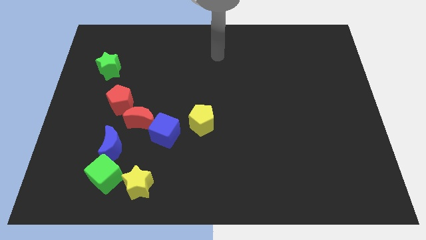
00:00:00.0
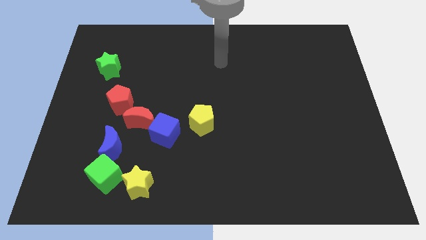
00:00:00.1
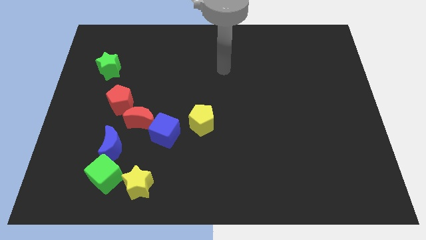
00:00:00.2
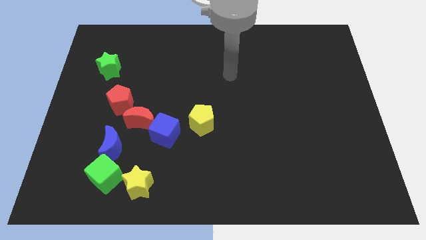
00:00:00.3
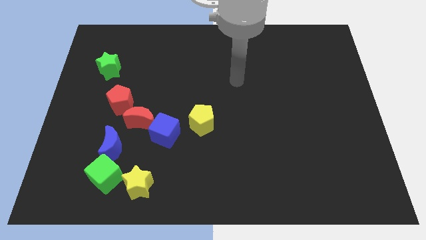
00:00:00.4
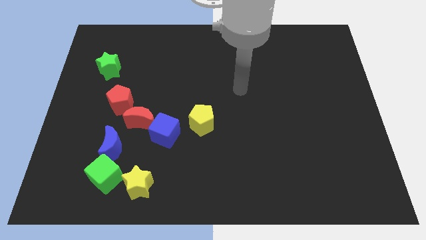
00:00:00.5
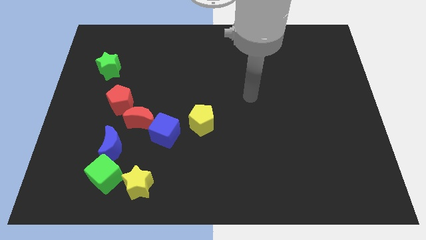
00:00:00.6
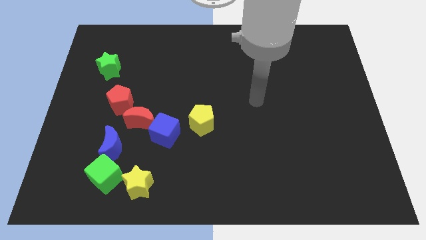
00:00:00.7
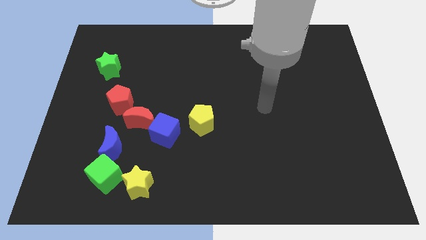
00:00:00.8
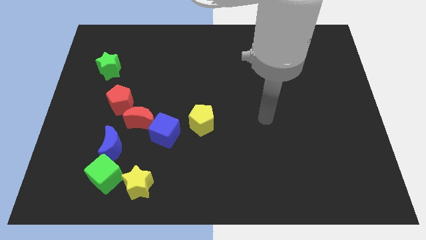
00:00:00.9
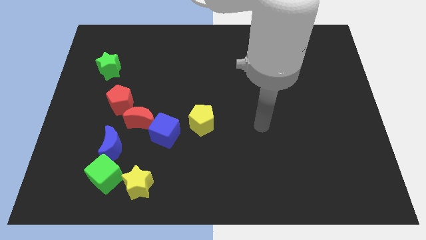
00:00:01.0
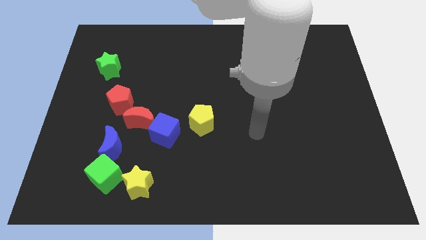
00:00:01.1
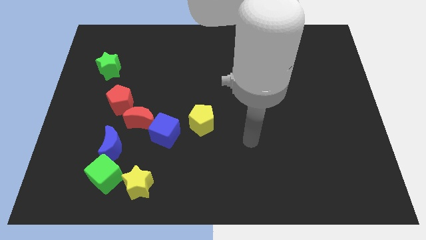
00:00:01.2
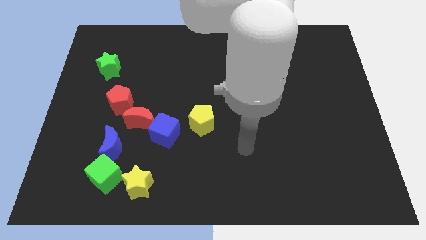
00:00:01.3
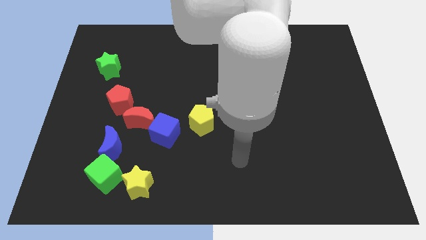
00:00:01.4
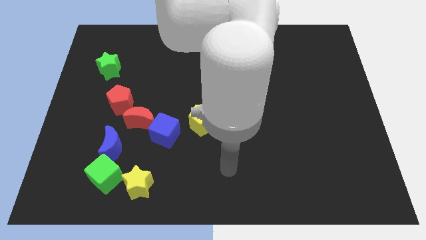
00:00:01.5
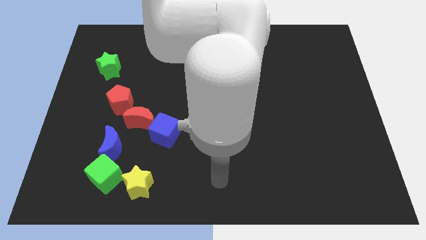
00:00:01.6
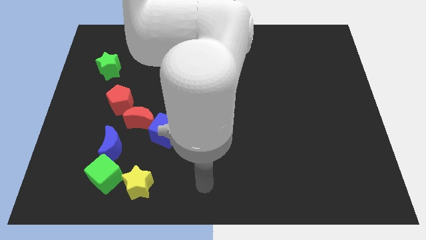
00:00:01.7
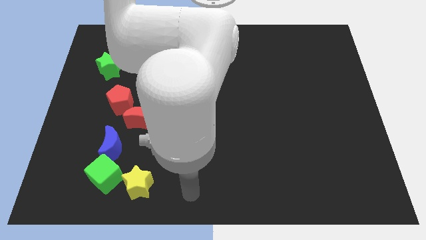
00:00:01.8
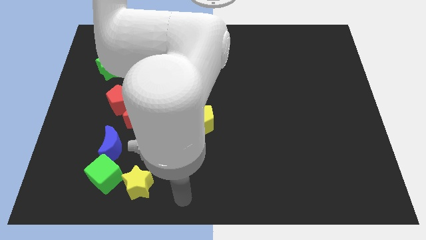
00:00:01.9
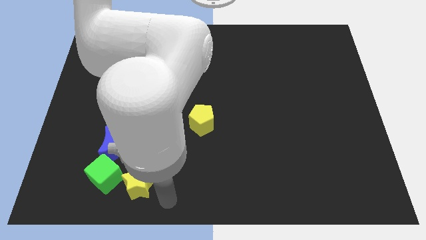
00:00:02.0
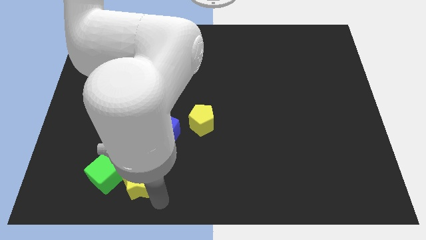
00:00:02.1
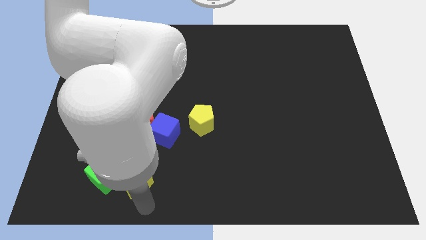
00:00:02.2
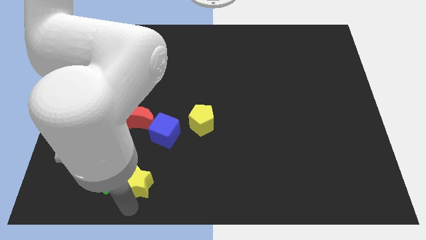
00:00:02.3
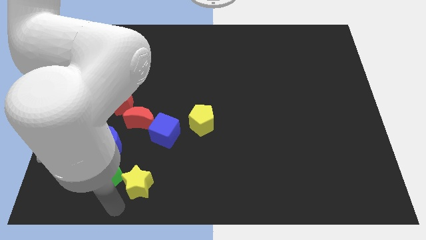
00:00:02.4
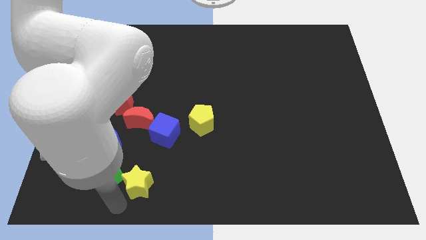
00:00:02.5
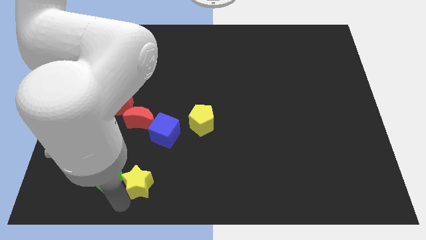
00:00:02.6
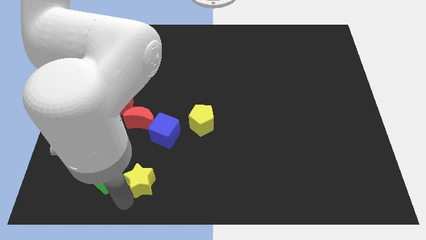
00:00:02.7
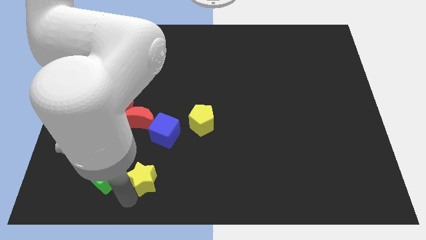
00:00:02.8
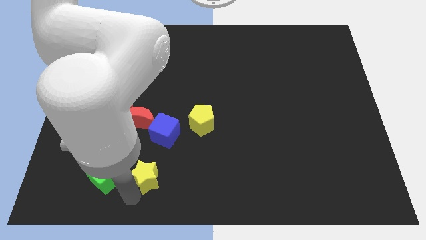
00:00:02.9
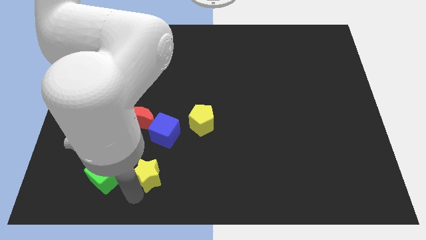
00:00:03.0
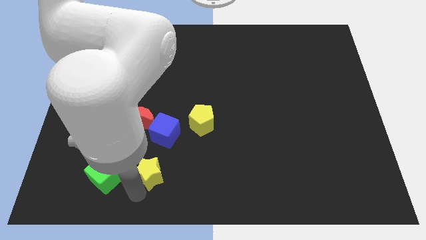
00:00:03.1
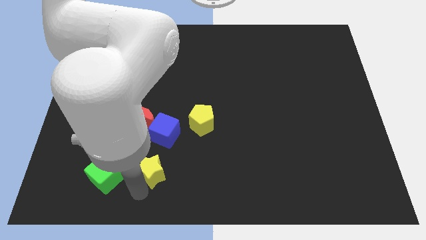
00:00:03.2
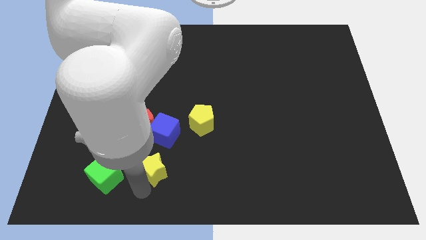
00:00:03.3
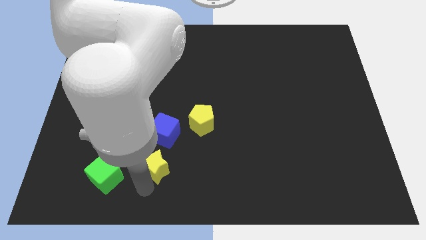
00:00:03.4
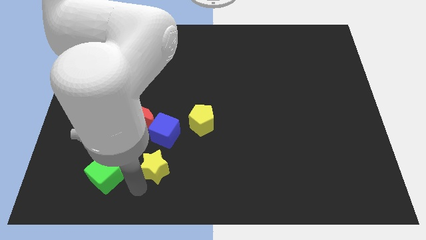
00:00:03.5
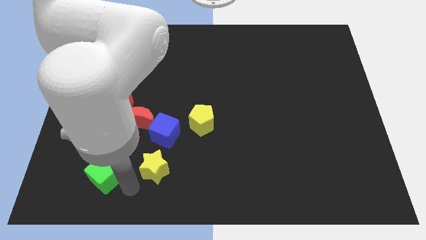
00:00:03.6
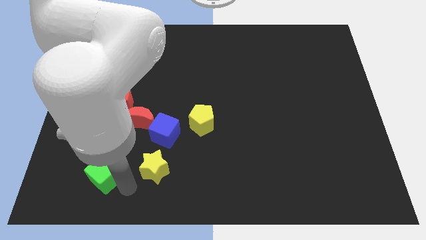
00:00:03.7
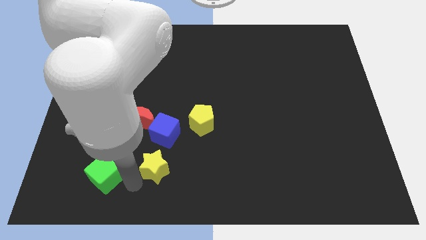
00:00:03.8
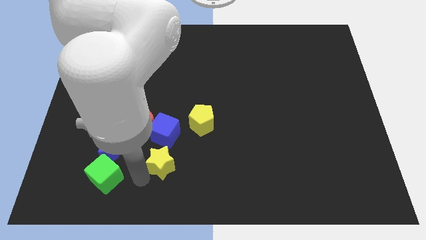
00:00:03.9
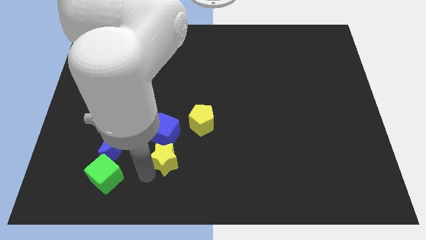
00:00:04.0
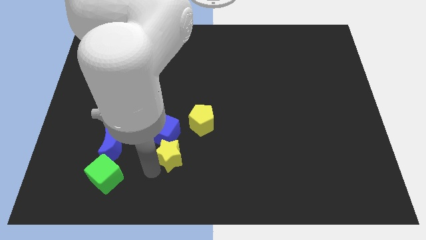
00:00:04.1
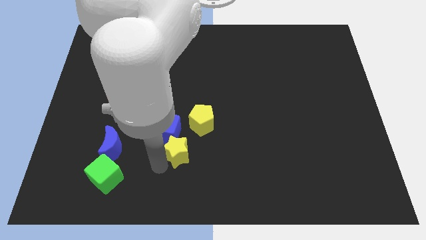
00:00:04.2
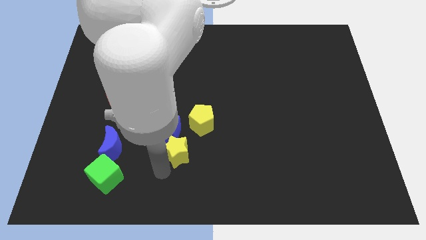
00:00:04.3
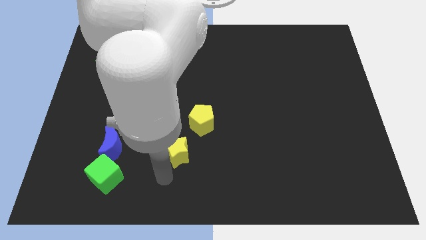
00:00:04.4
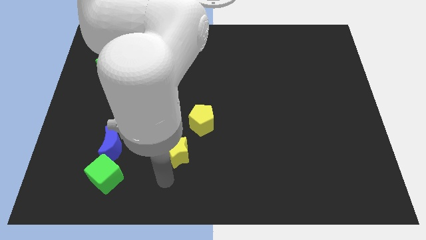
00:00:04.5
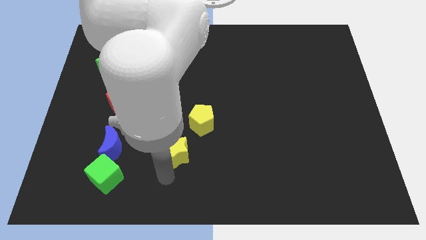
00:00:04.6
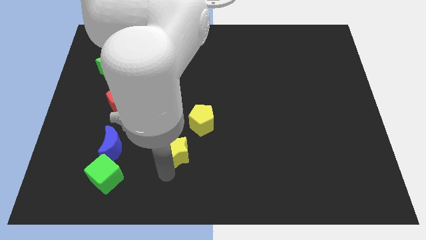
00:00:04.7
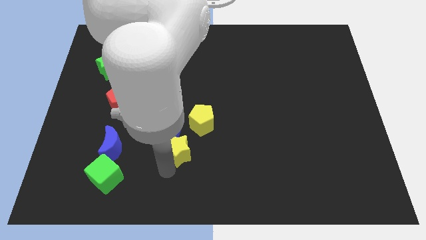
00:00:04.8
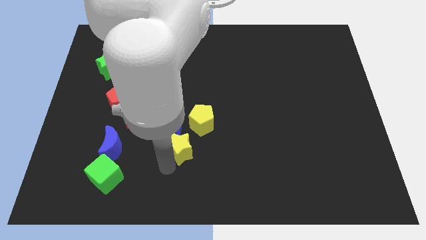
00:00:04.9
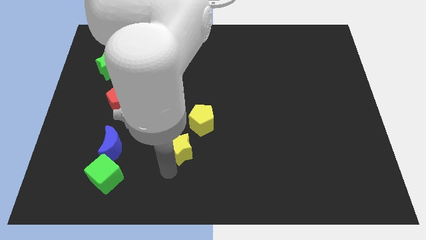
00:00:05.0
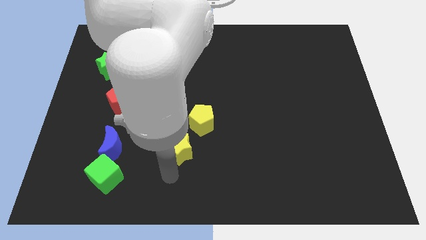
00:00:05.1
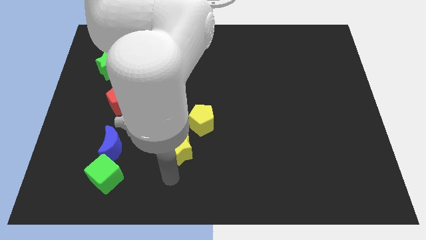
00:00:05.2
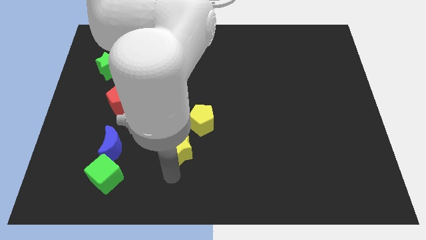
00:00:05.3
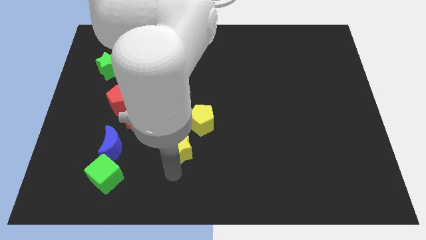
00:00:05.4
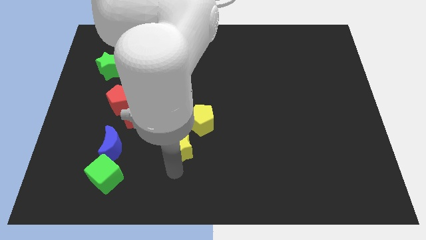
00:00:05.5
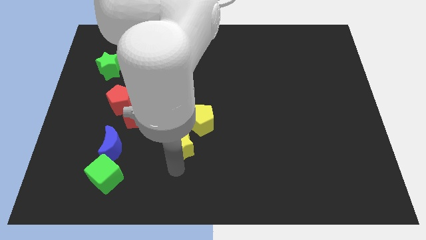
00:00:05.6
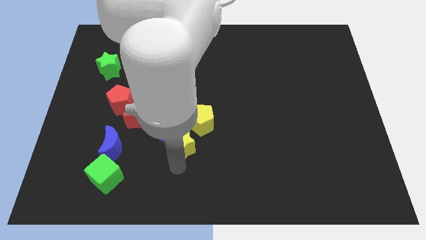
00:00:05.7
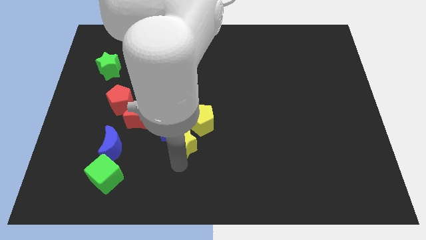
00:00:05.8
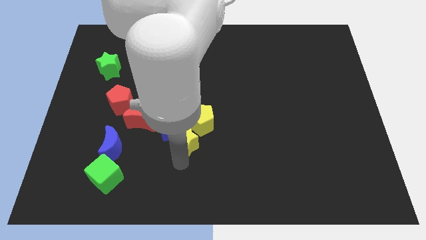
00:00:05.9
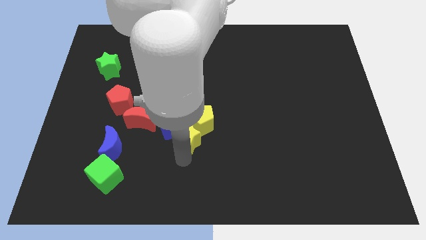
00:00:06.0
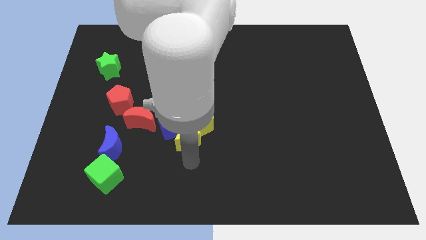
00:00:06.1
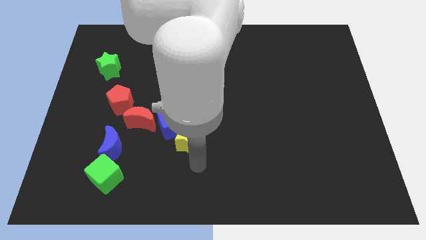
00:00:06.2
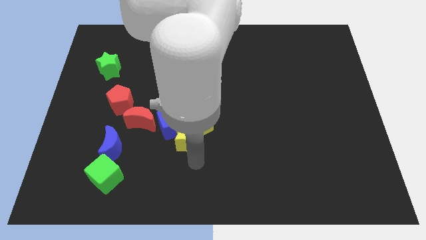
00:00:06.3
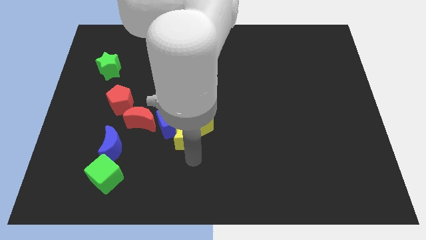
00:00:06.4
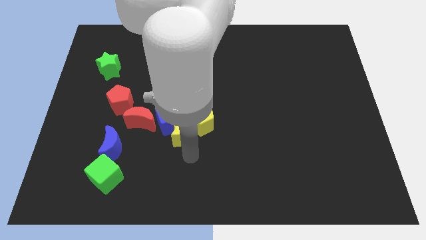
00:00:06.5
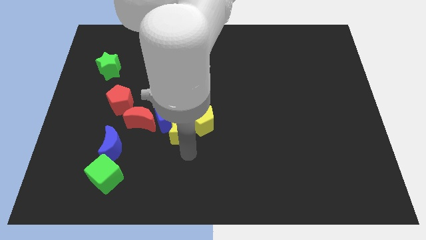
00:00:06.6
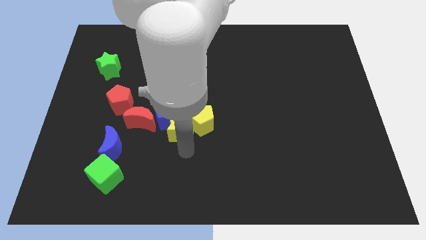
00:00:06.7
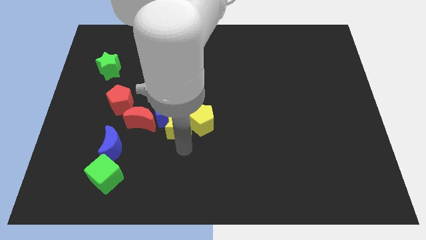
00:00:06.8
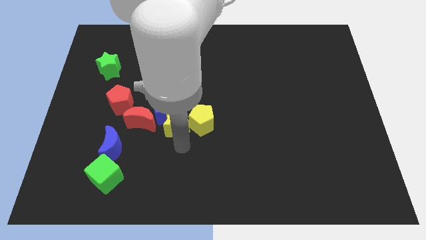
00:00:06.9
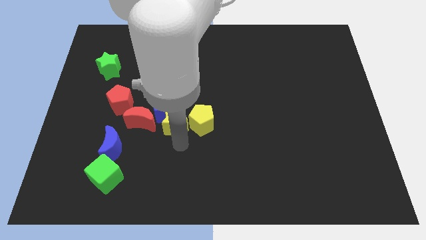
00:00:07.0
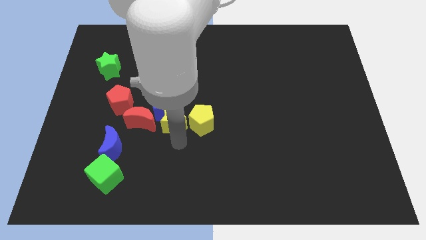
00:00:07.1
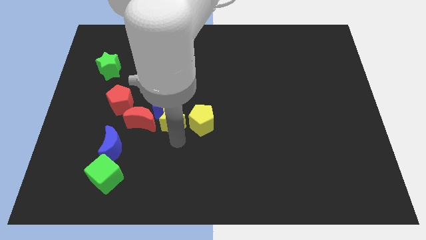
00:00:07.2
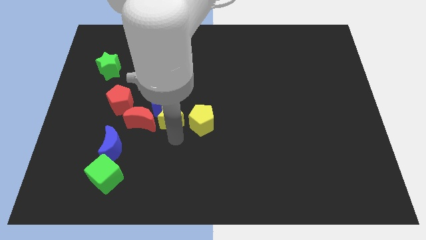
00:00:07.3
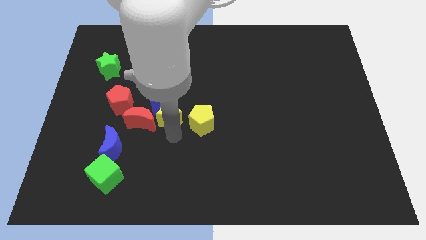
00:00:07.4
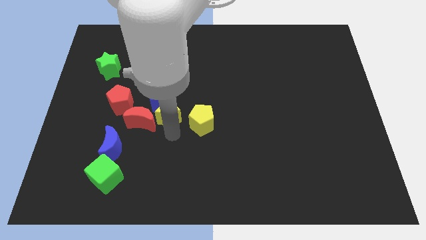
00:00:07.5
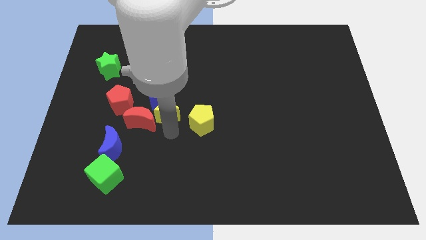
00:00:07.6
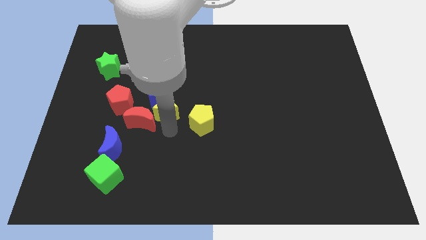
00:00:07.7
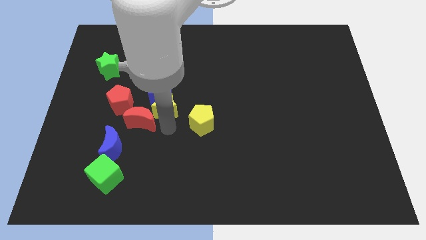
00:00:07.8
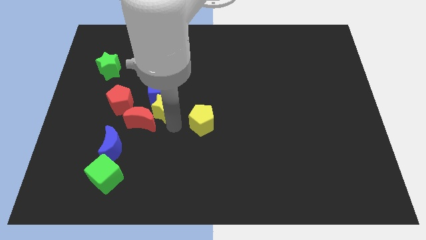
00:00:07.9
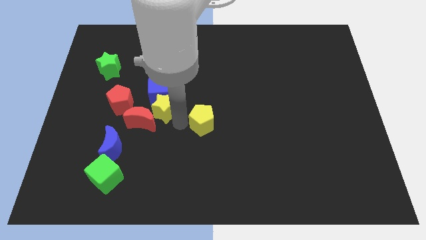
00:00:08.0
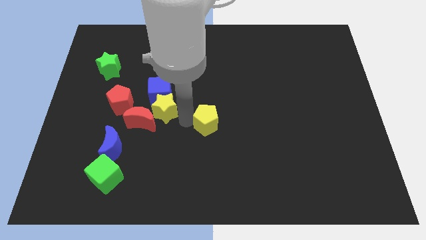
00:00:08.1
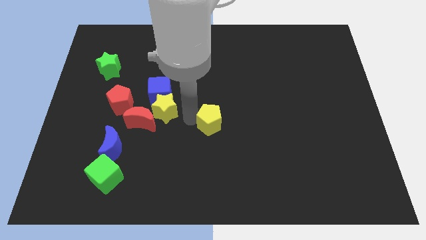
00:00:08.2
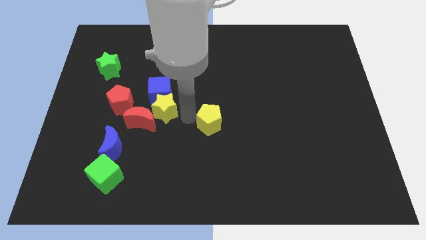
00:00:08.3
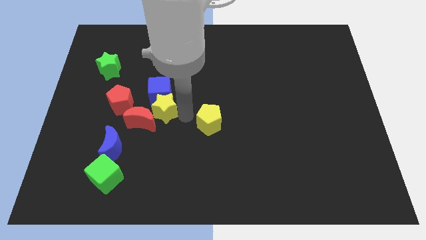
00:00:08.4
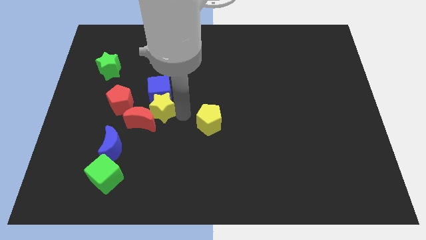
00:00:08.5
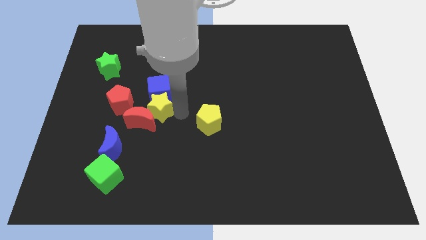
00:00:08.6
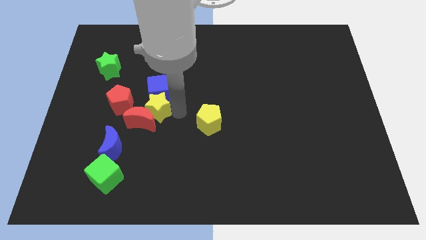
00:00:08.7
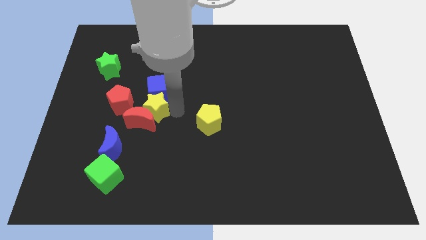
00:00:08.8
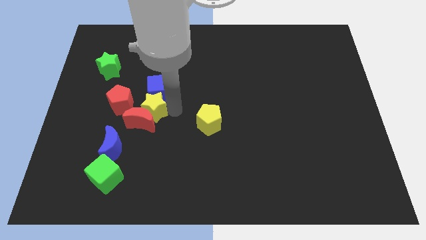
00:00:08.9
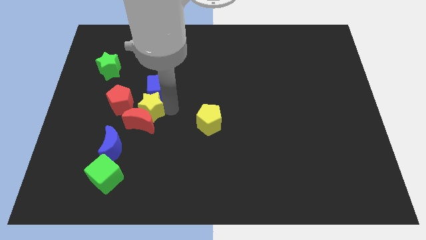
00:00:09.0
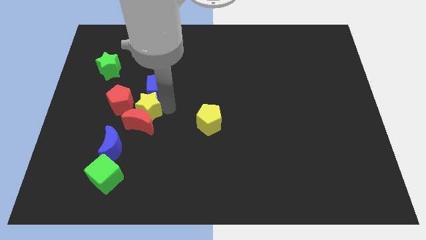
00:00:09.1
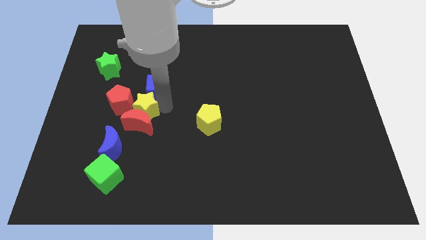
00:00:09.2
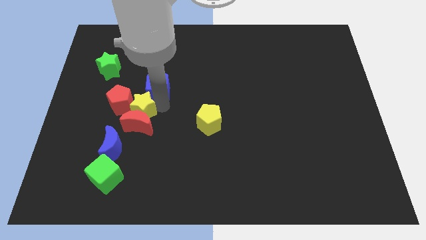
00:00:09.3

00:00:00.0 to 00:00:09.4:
push the yellow star towards the red pentagon
